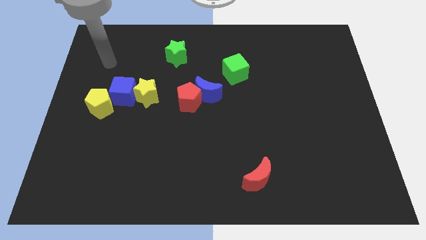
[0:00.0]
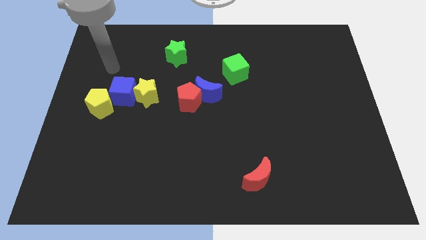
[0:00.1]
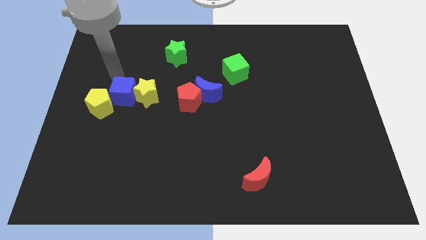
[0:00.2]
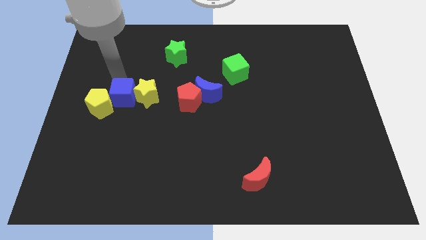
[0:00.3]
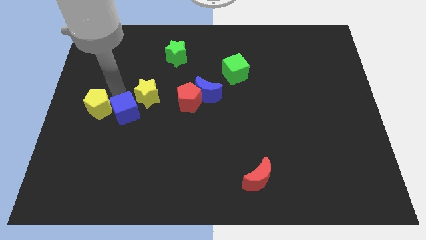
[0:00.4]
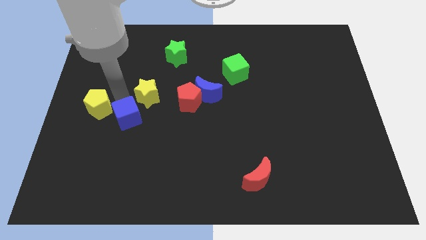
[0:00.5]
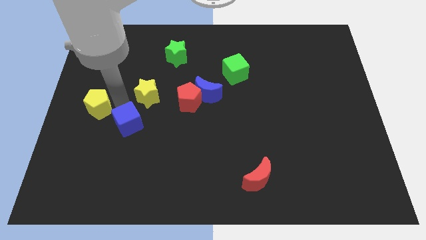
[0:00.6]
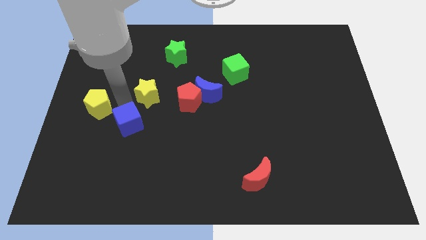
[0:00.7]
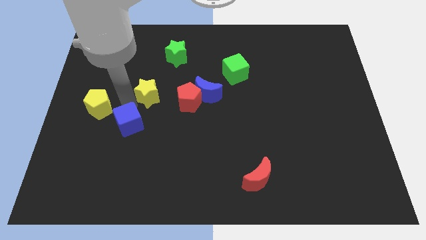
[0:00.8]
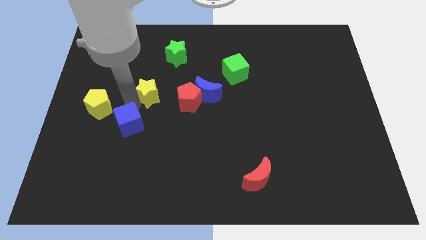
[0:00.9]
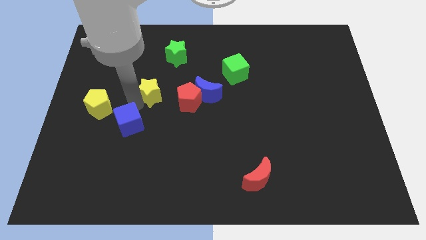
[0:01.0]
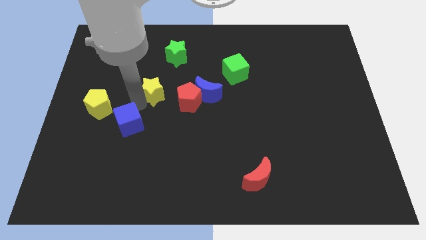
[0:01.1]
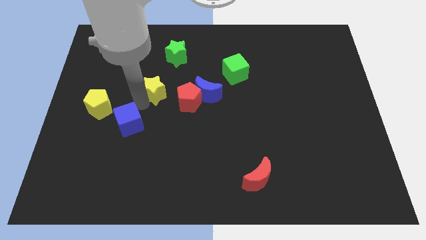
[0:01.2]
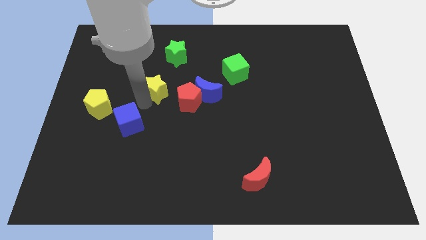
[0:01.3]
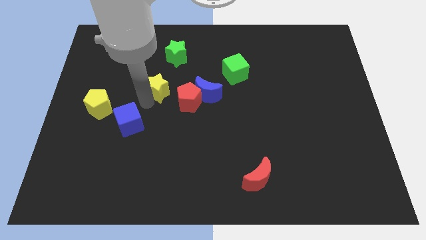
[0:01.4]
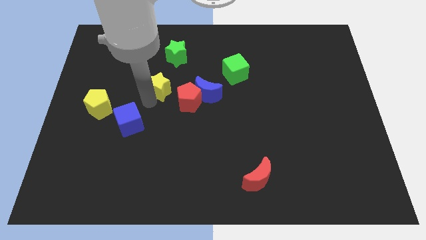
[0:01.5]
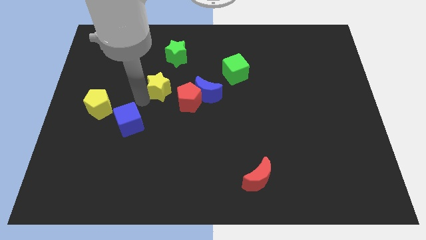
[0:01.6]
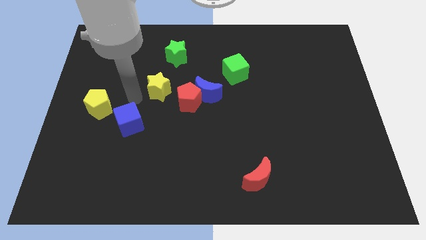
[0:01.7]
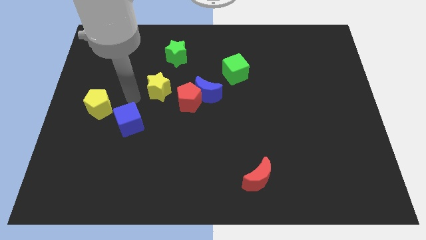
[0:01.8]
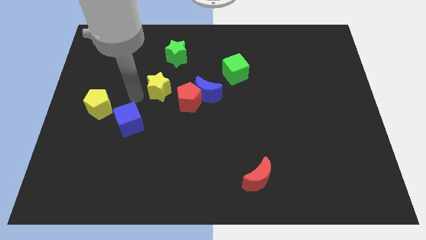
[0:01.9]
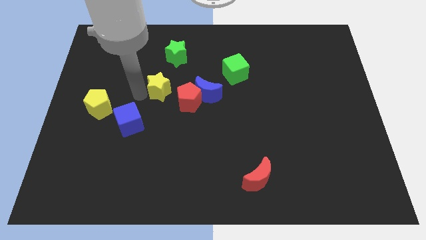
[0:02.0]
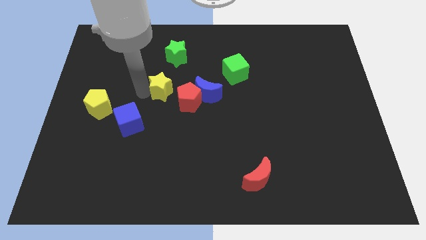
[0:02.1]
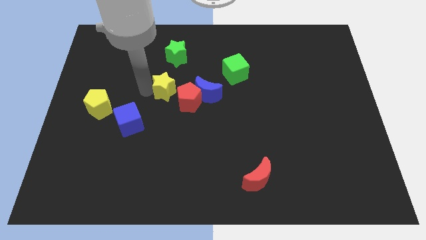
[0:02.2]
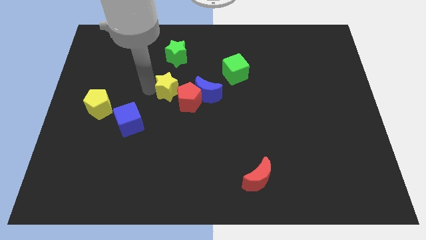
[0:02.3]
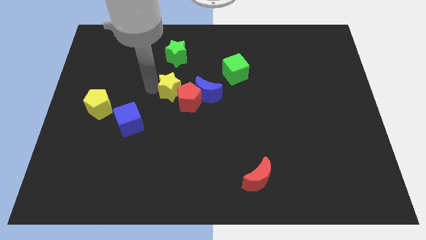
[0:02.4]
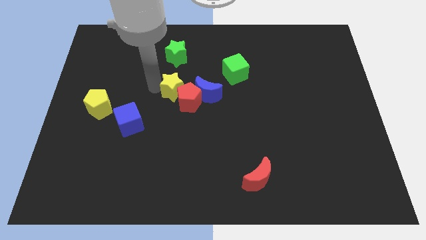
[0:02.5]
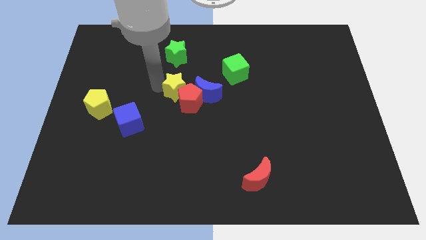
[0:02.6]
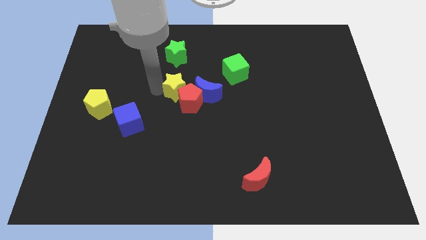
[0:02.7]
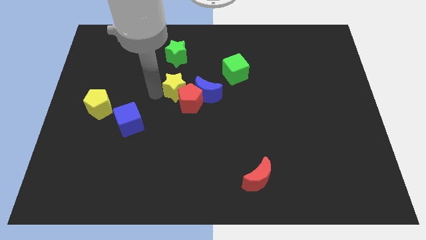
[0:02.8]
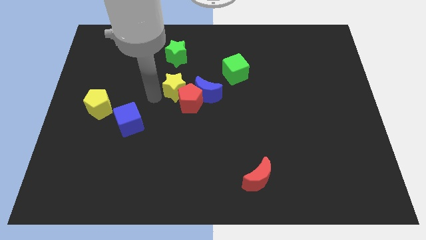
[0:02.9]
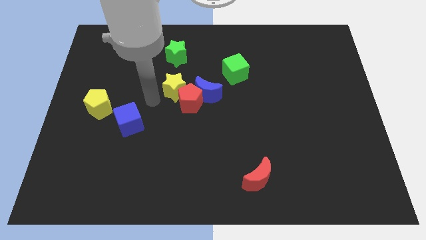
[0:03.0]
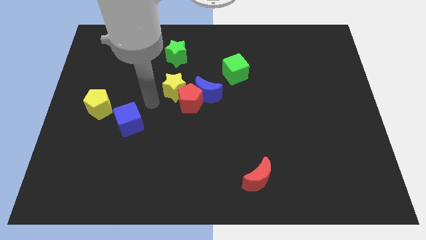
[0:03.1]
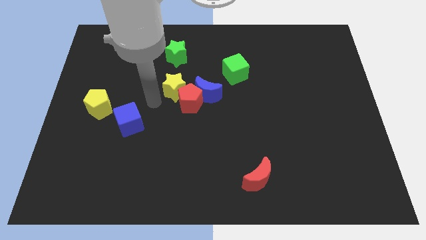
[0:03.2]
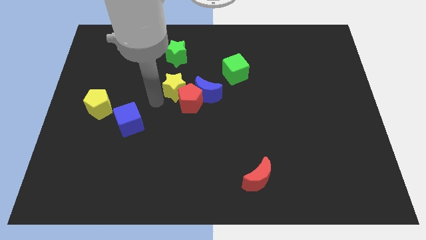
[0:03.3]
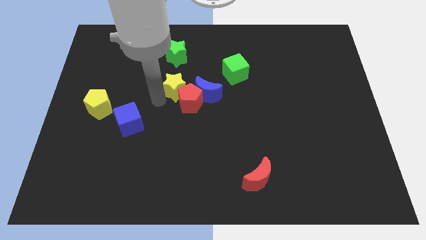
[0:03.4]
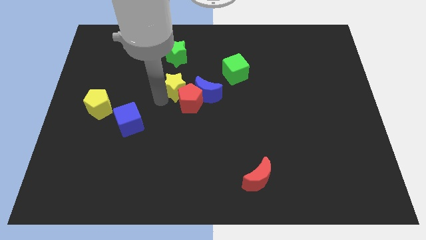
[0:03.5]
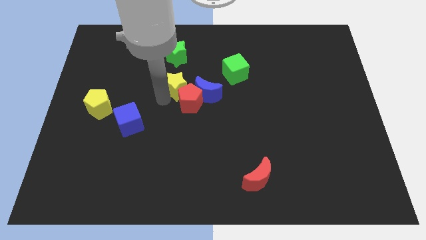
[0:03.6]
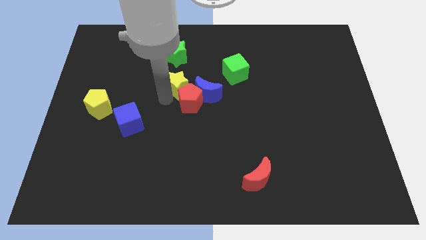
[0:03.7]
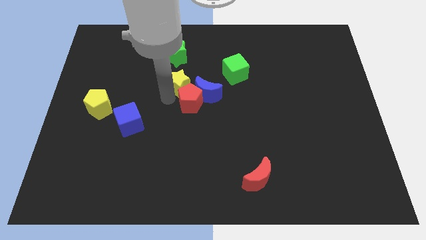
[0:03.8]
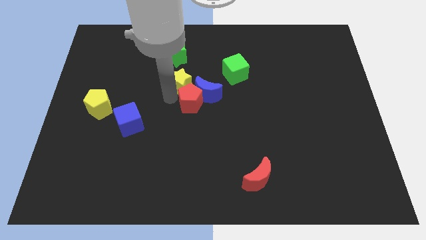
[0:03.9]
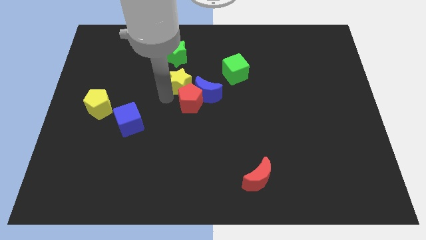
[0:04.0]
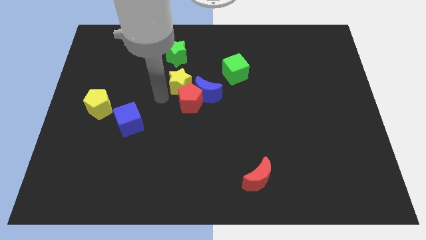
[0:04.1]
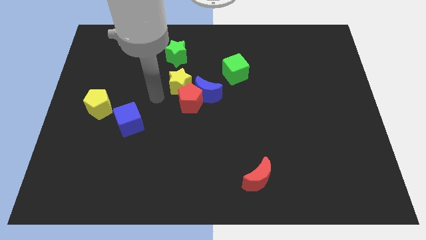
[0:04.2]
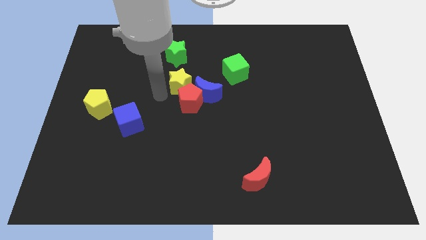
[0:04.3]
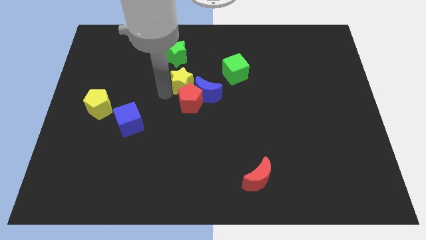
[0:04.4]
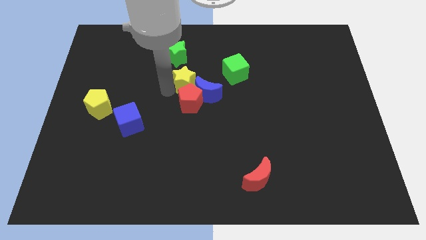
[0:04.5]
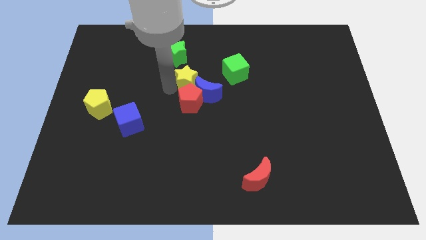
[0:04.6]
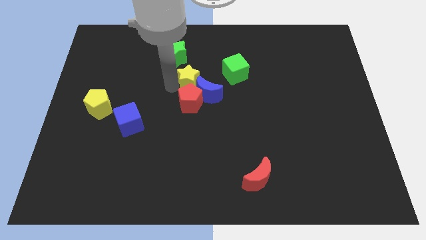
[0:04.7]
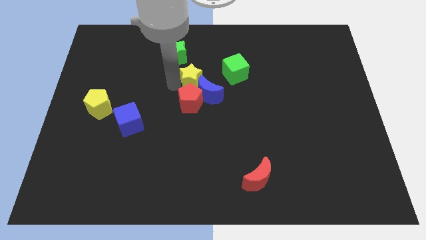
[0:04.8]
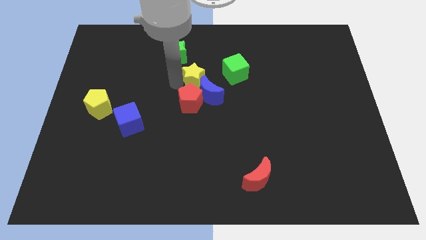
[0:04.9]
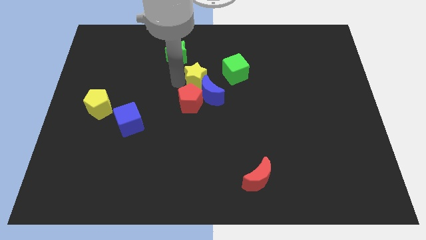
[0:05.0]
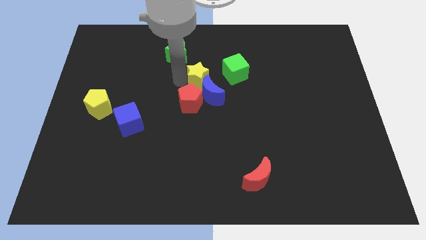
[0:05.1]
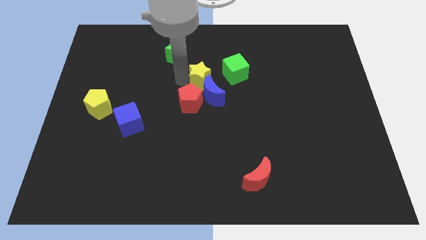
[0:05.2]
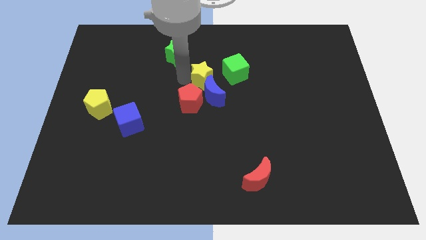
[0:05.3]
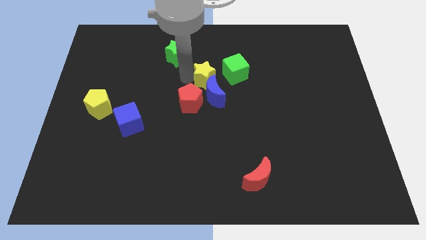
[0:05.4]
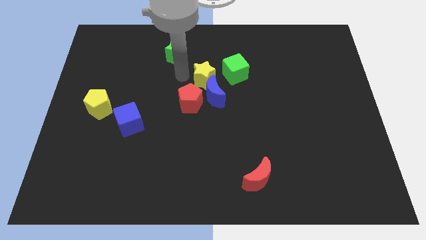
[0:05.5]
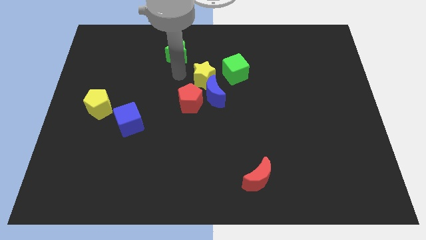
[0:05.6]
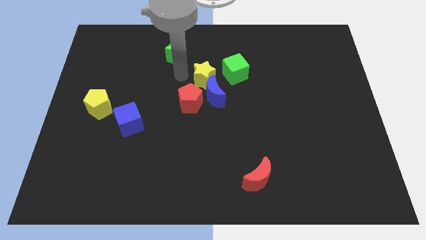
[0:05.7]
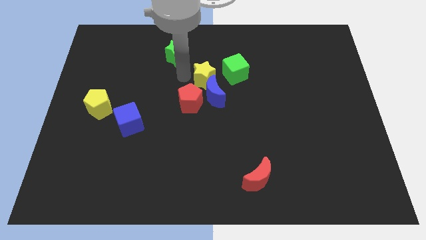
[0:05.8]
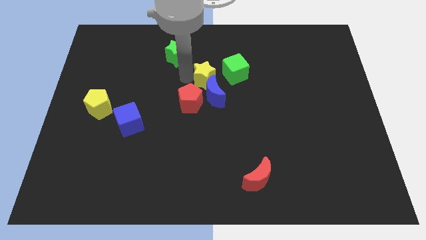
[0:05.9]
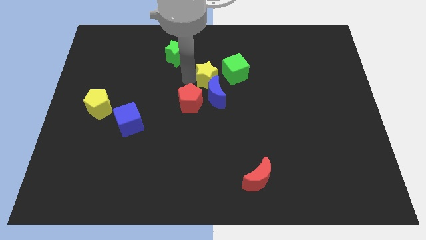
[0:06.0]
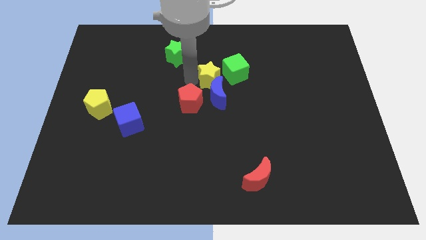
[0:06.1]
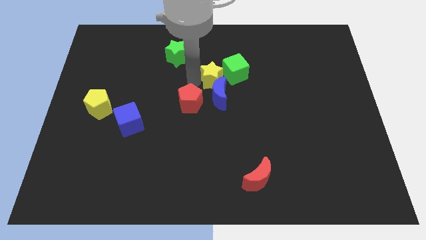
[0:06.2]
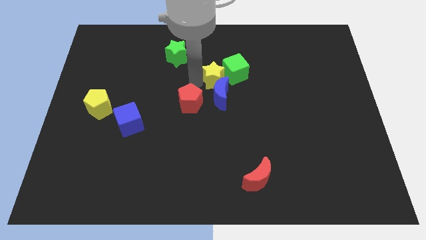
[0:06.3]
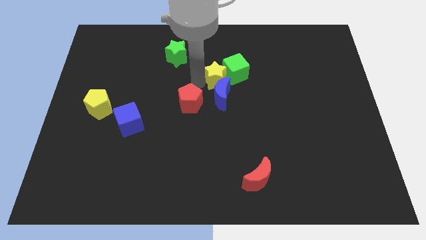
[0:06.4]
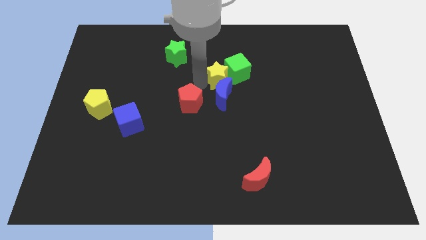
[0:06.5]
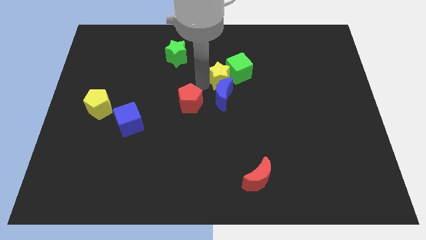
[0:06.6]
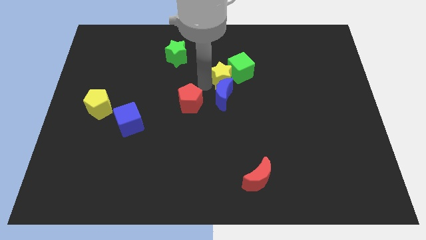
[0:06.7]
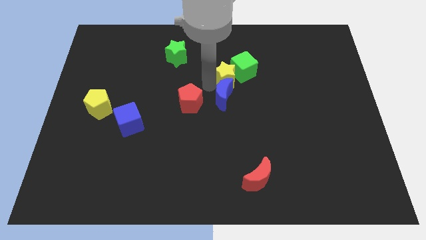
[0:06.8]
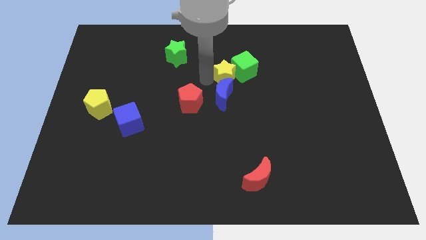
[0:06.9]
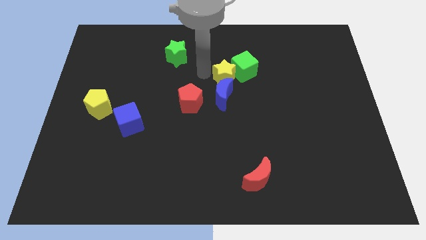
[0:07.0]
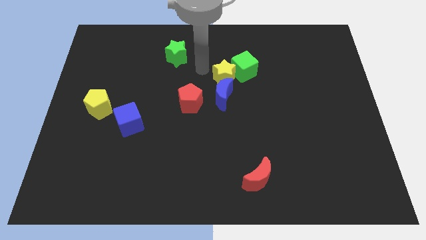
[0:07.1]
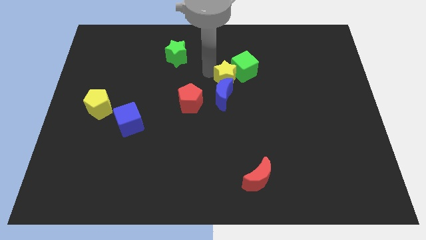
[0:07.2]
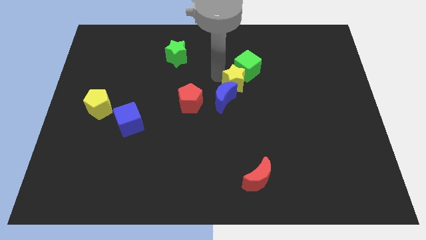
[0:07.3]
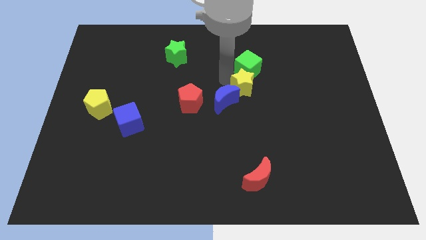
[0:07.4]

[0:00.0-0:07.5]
push the yellow star right of the blue moon
